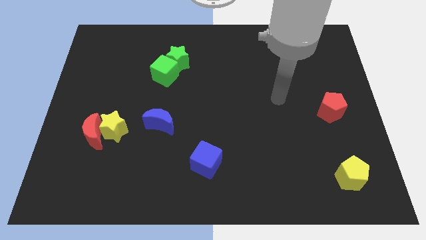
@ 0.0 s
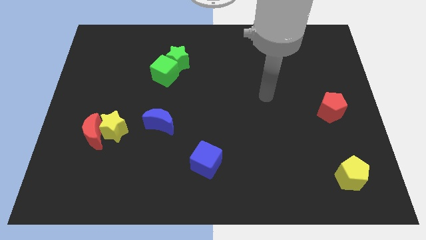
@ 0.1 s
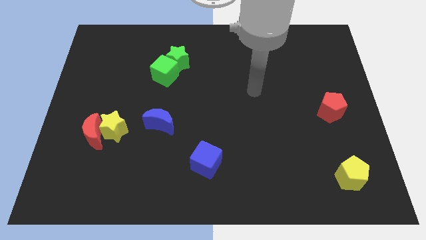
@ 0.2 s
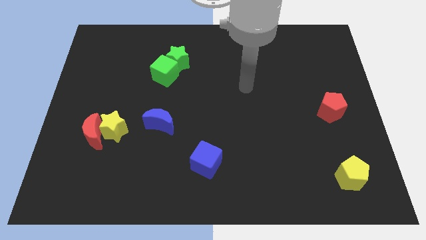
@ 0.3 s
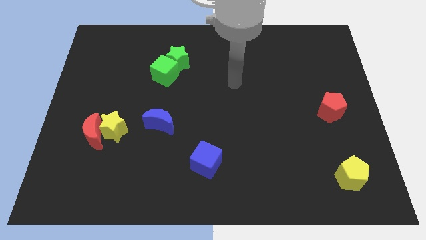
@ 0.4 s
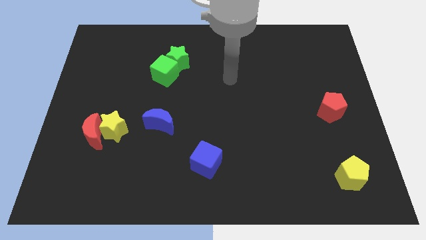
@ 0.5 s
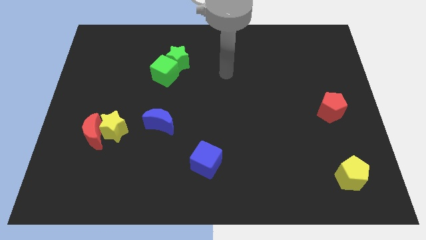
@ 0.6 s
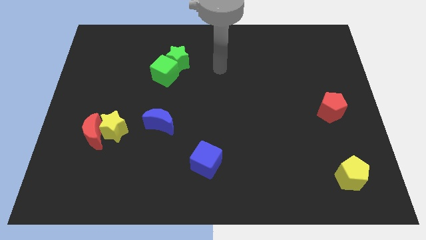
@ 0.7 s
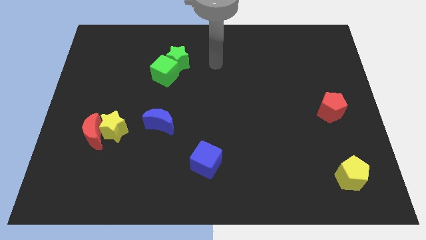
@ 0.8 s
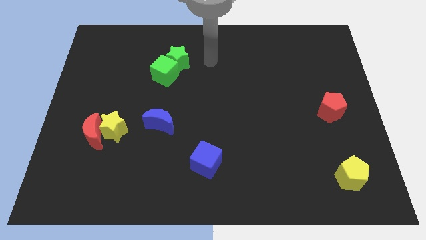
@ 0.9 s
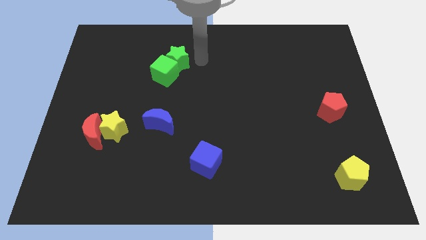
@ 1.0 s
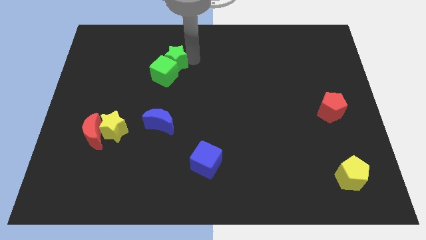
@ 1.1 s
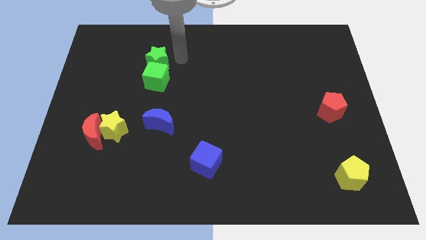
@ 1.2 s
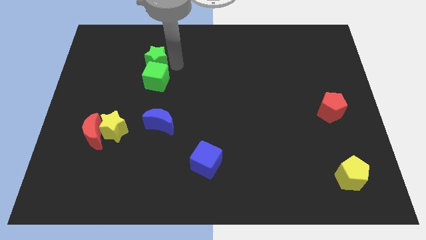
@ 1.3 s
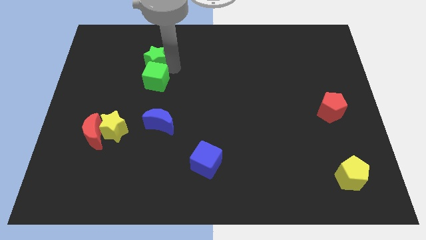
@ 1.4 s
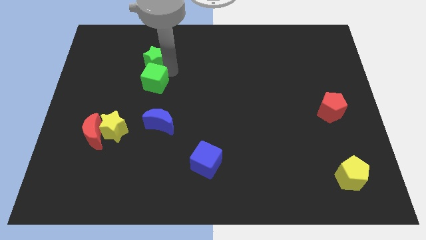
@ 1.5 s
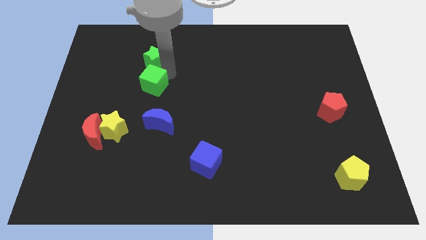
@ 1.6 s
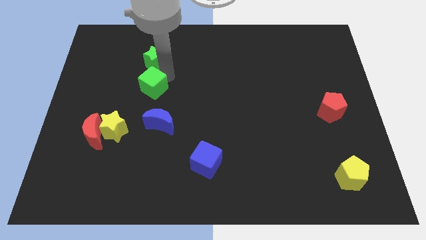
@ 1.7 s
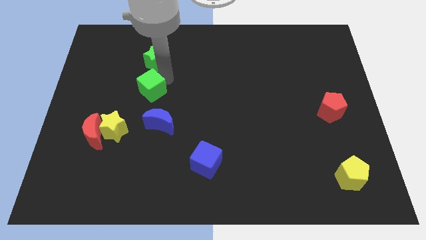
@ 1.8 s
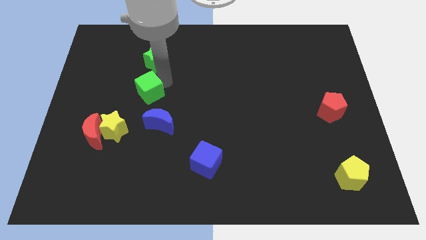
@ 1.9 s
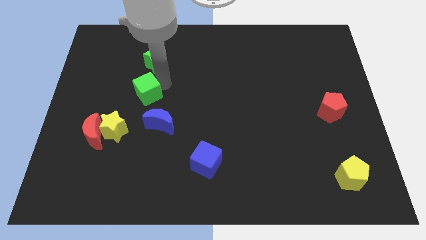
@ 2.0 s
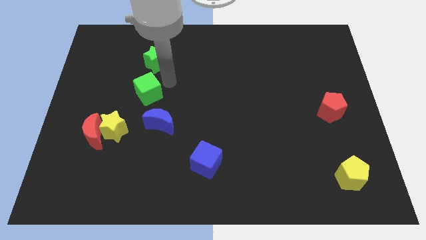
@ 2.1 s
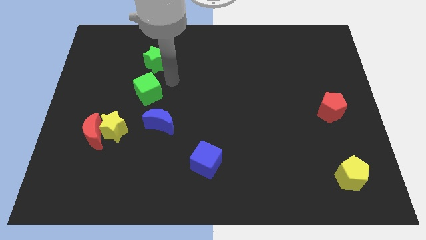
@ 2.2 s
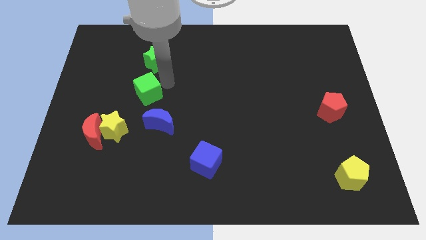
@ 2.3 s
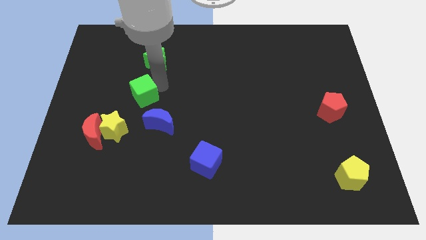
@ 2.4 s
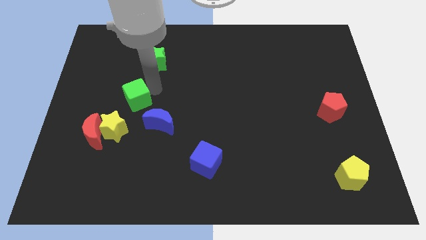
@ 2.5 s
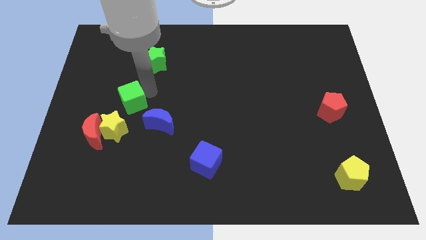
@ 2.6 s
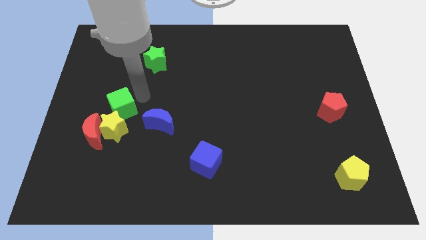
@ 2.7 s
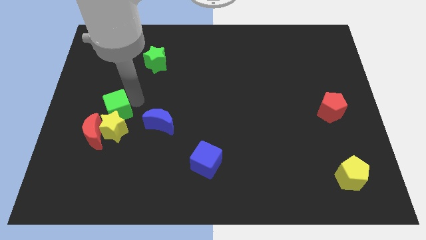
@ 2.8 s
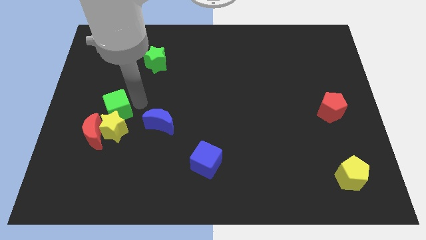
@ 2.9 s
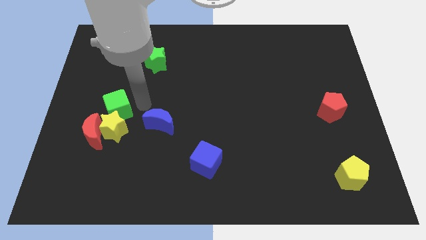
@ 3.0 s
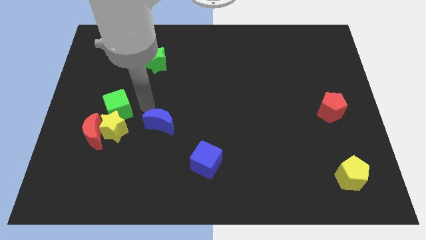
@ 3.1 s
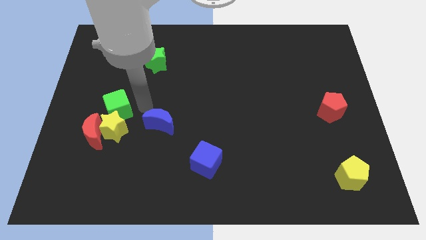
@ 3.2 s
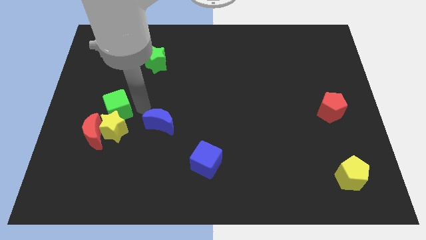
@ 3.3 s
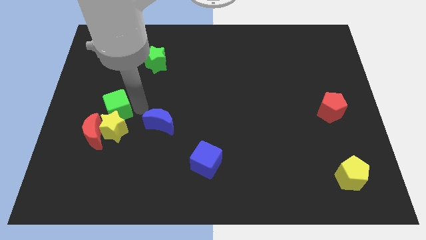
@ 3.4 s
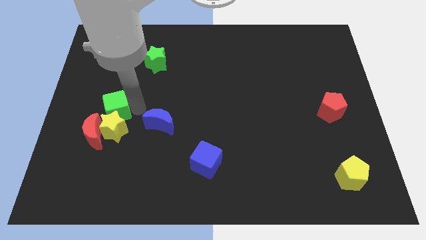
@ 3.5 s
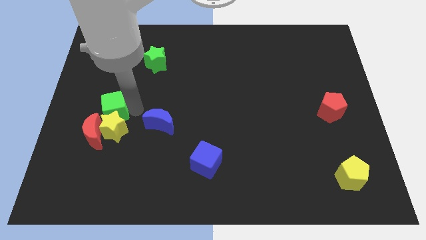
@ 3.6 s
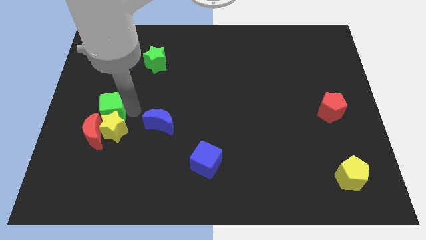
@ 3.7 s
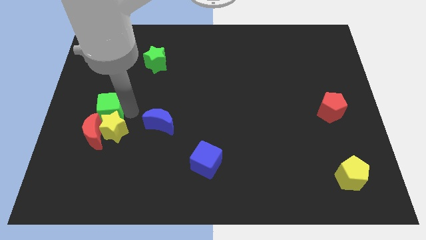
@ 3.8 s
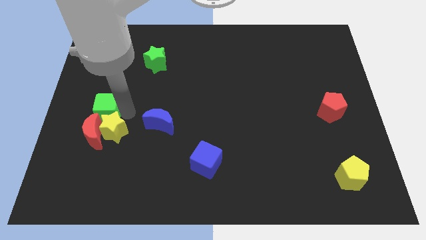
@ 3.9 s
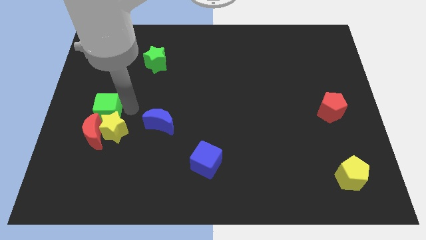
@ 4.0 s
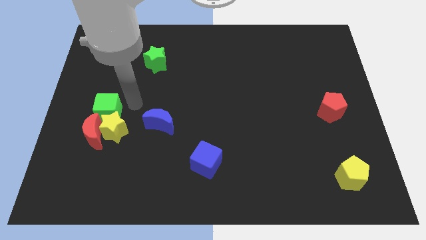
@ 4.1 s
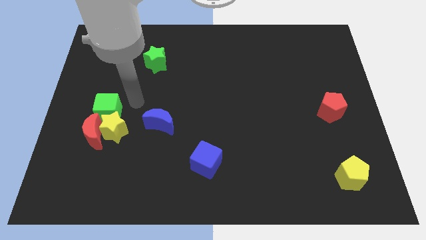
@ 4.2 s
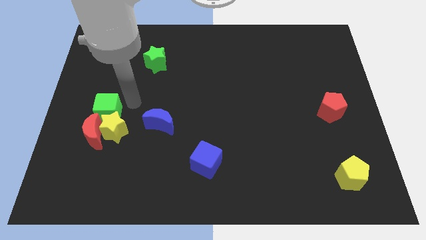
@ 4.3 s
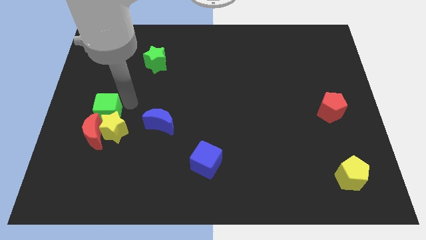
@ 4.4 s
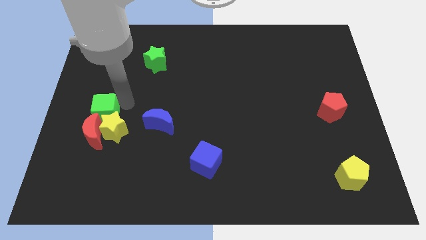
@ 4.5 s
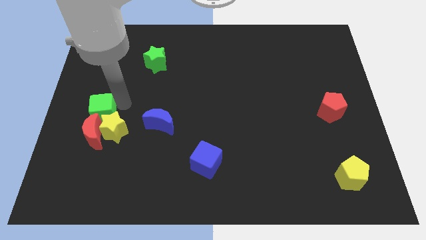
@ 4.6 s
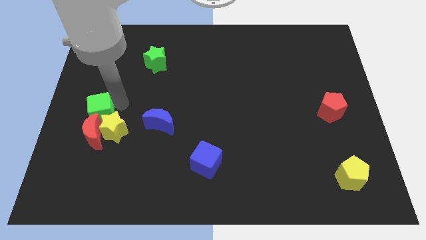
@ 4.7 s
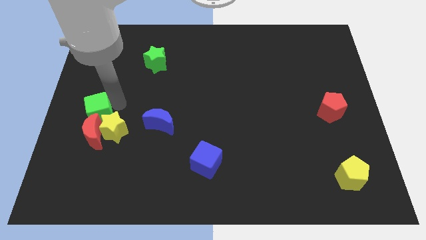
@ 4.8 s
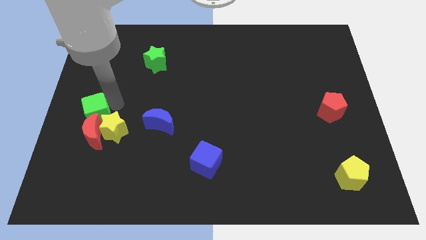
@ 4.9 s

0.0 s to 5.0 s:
push the green cube to the red moon

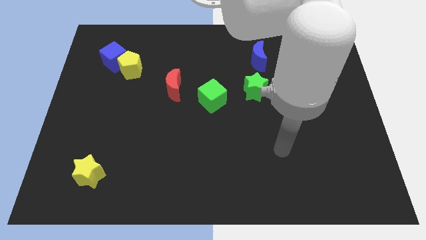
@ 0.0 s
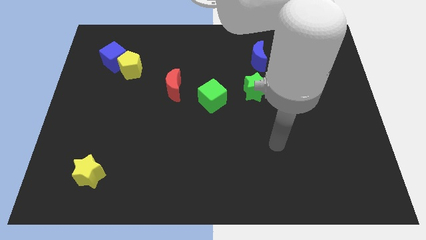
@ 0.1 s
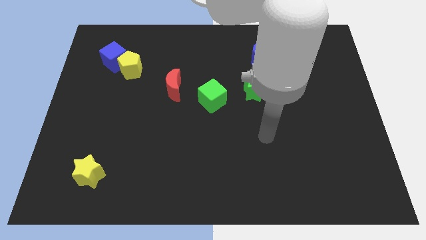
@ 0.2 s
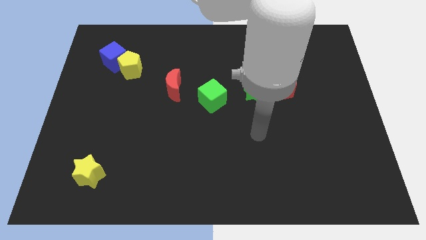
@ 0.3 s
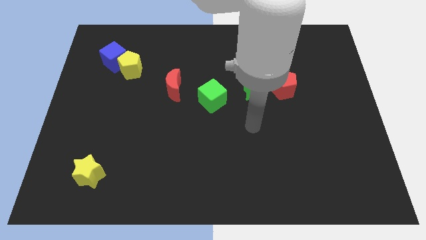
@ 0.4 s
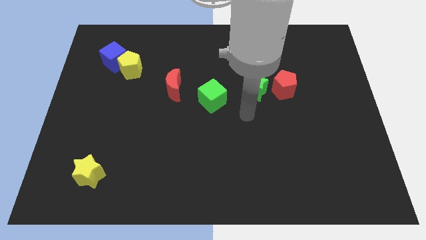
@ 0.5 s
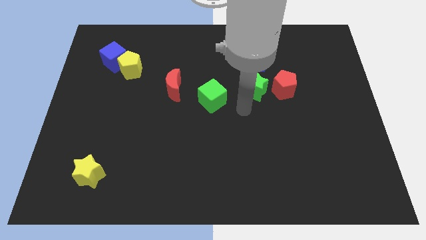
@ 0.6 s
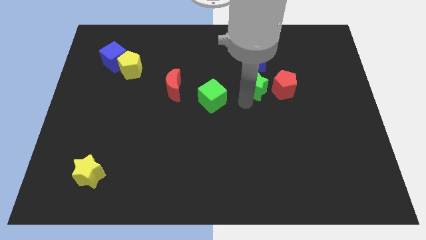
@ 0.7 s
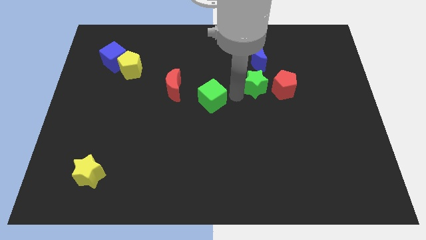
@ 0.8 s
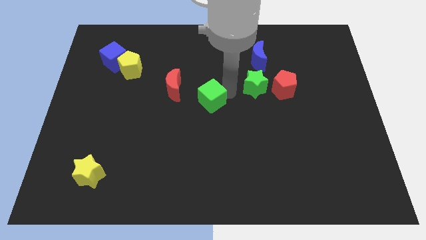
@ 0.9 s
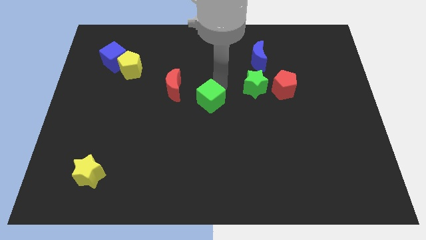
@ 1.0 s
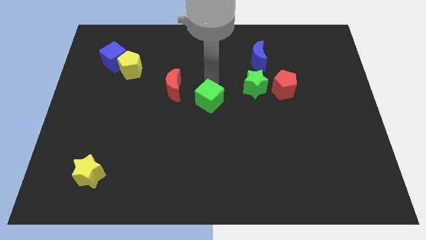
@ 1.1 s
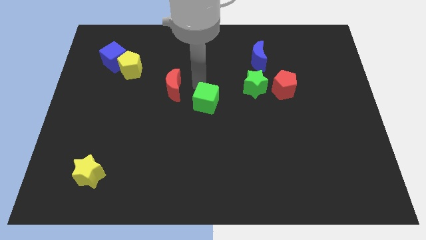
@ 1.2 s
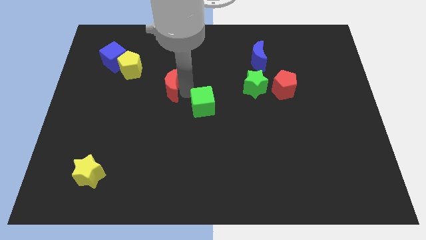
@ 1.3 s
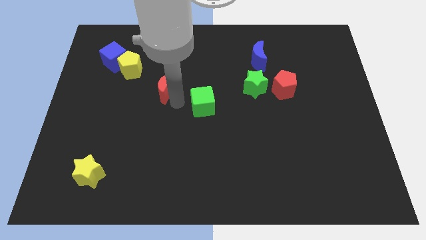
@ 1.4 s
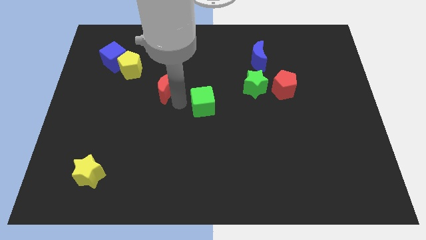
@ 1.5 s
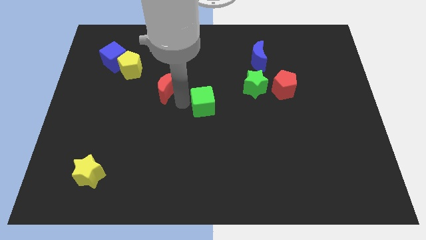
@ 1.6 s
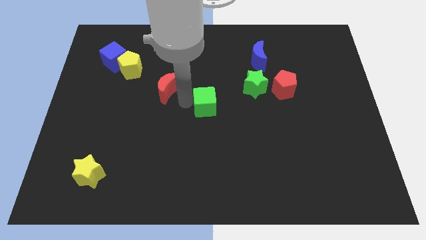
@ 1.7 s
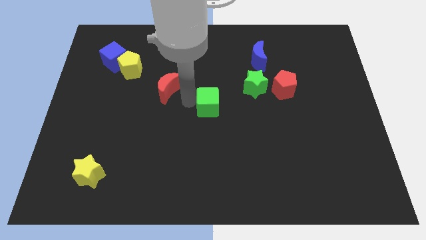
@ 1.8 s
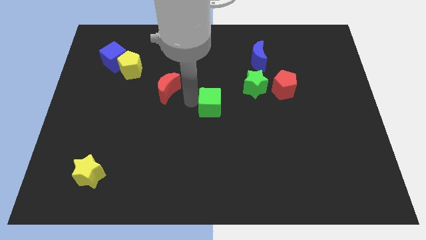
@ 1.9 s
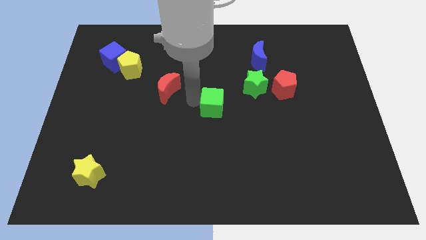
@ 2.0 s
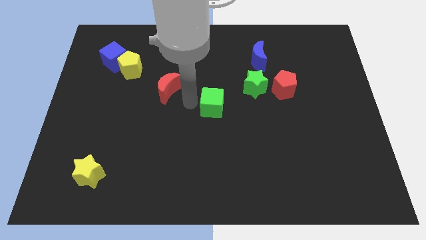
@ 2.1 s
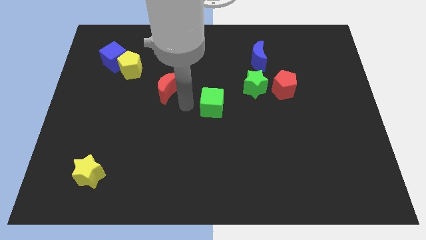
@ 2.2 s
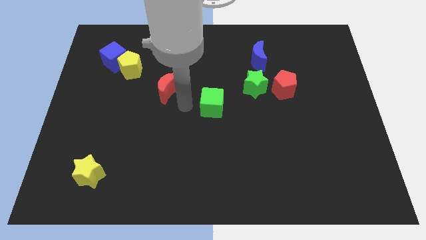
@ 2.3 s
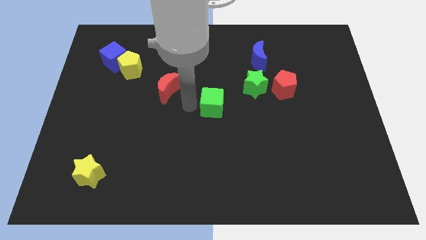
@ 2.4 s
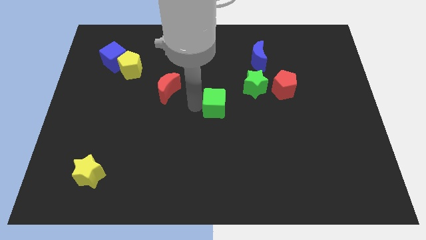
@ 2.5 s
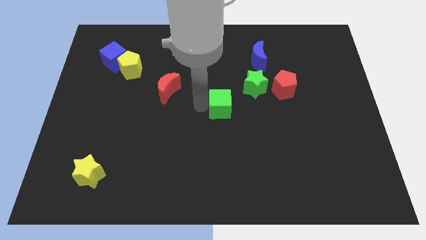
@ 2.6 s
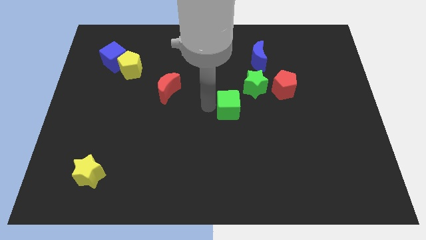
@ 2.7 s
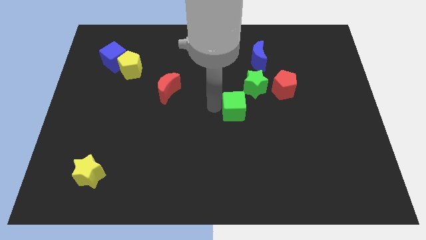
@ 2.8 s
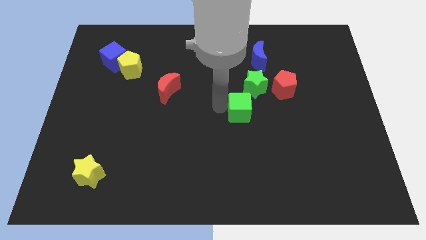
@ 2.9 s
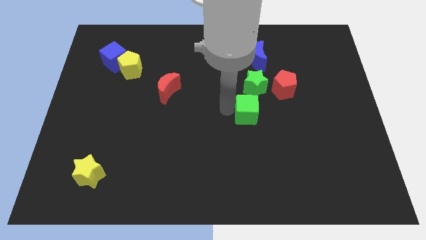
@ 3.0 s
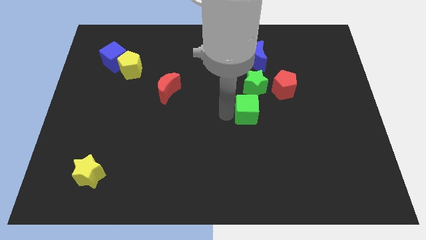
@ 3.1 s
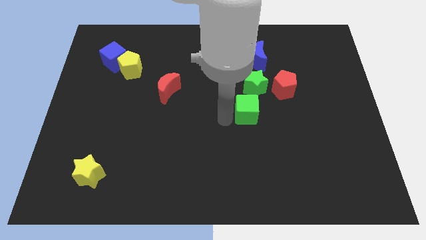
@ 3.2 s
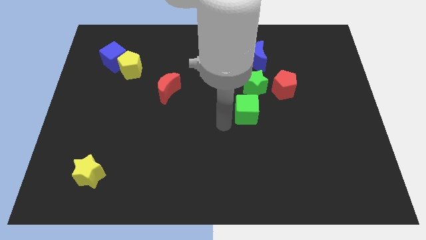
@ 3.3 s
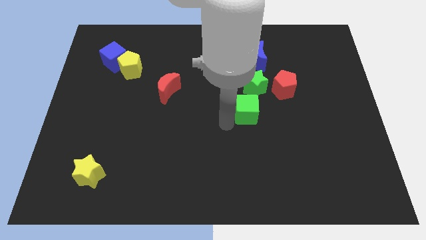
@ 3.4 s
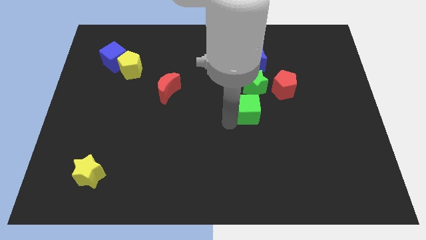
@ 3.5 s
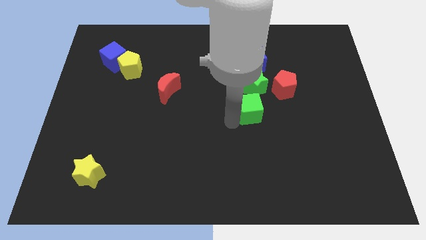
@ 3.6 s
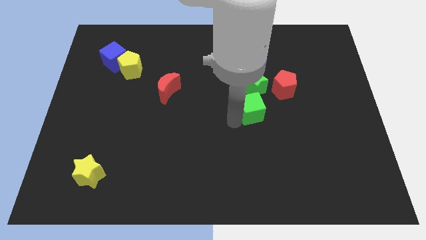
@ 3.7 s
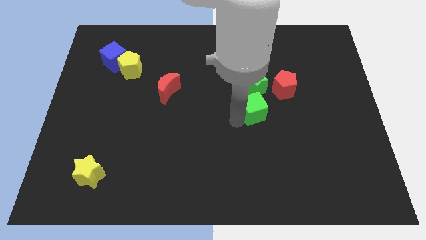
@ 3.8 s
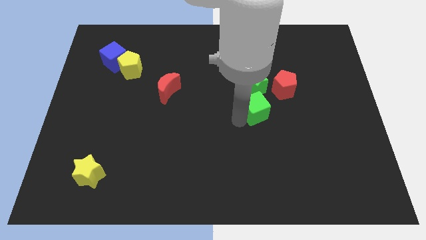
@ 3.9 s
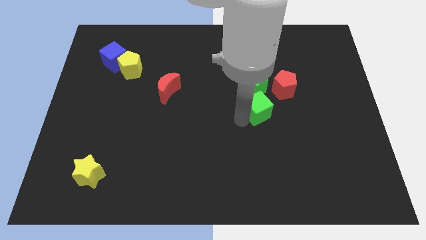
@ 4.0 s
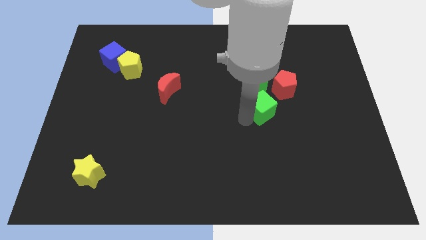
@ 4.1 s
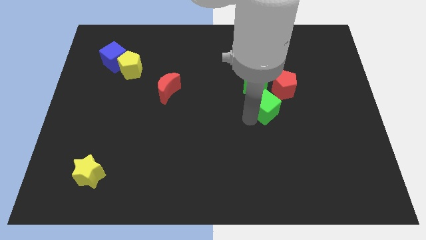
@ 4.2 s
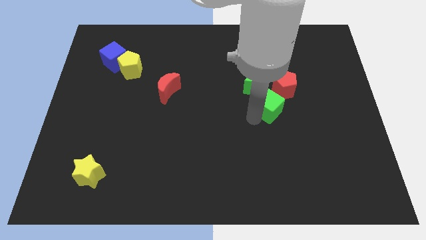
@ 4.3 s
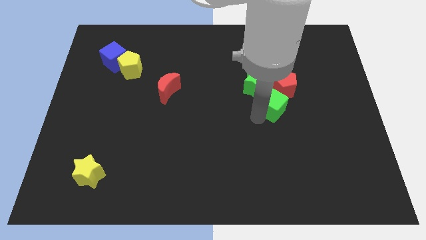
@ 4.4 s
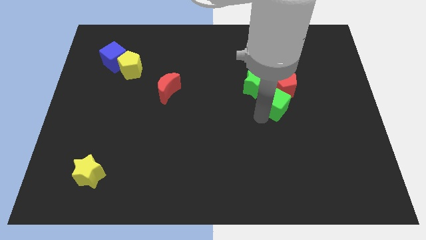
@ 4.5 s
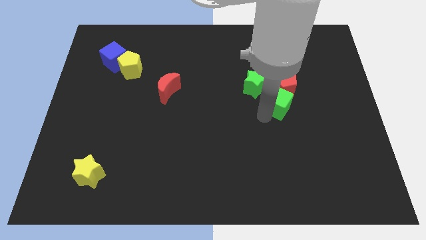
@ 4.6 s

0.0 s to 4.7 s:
move the green cube close to the red pentagon
